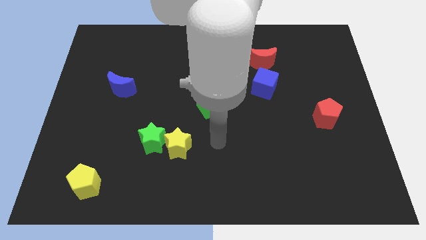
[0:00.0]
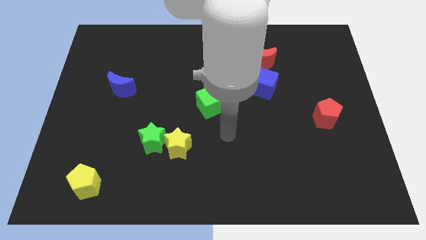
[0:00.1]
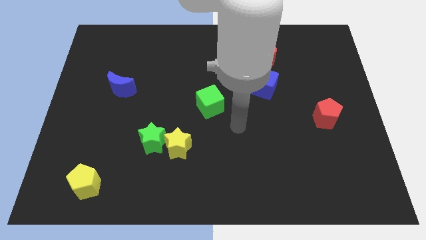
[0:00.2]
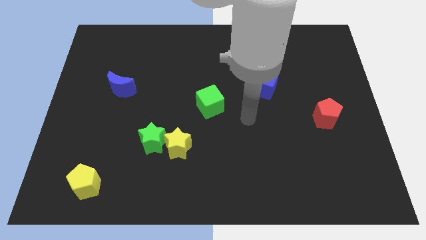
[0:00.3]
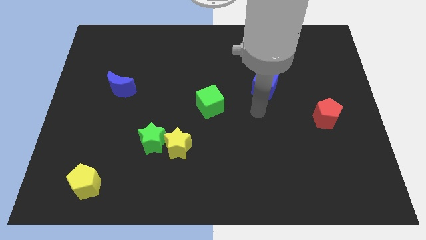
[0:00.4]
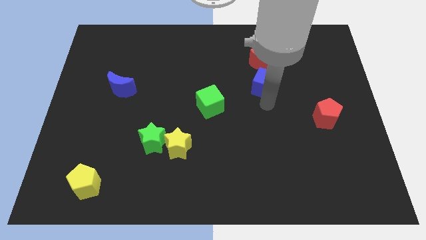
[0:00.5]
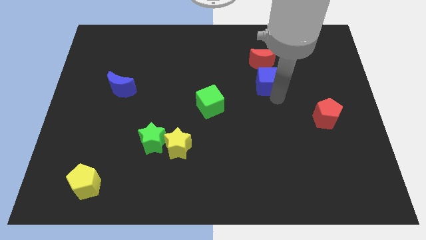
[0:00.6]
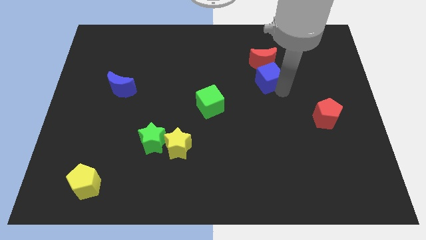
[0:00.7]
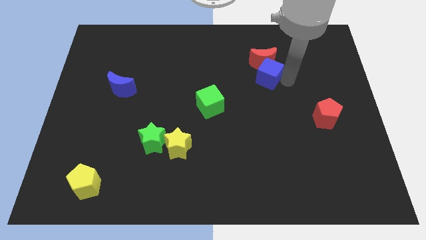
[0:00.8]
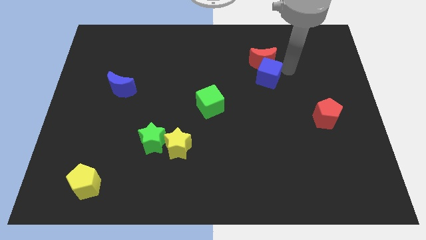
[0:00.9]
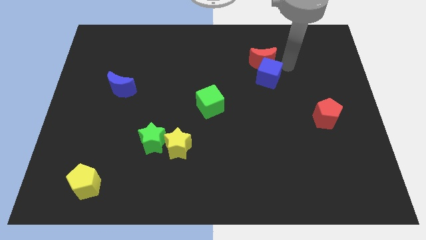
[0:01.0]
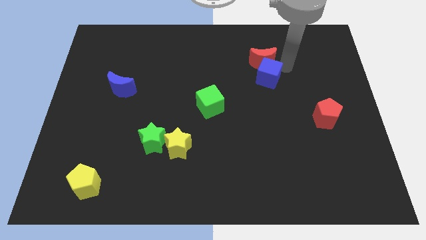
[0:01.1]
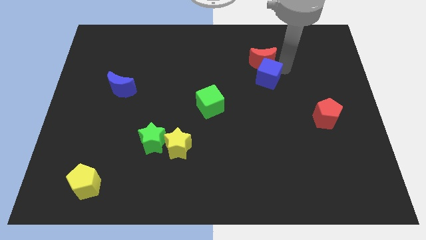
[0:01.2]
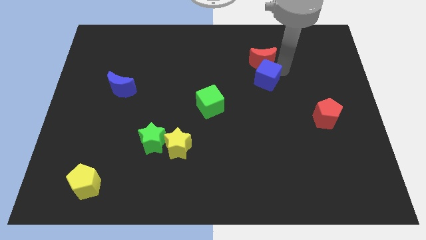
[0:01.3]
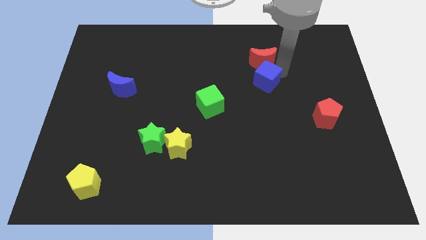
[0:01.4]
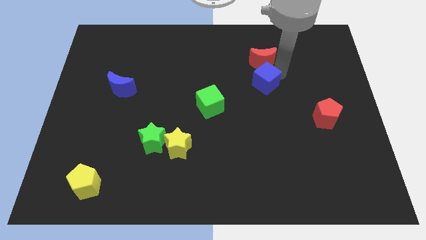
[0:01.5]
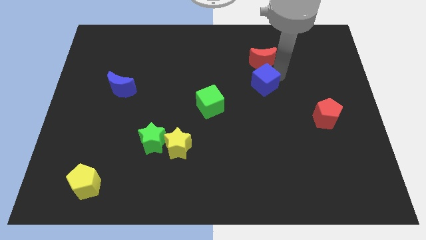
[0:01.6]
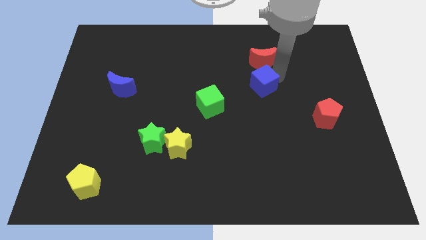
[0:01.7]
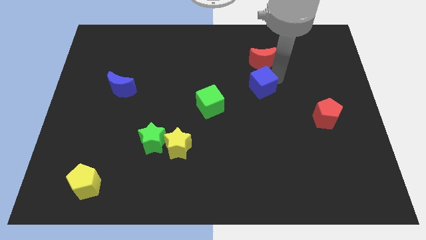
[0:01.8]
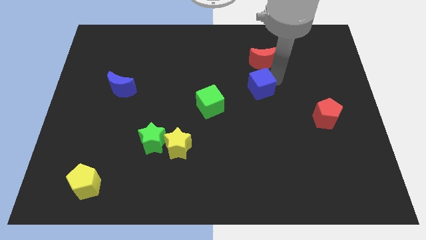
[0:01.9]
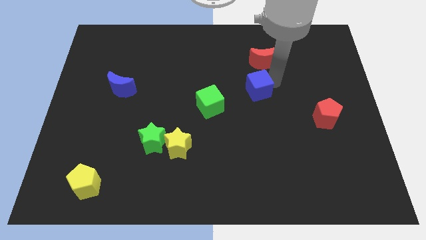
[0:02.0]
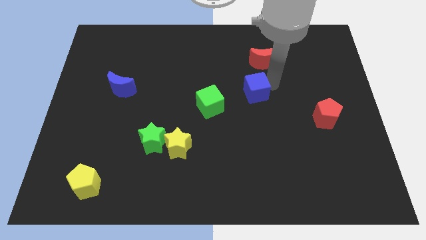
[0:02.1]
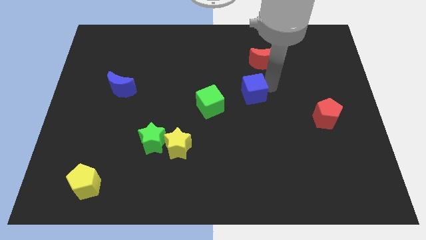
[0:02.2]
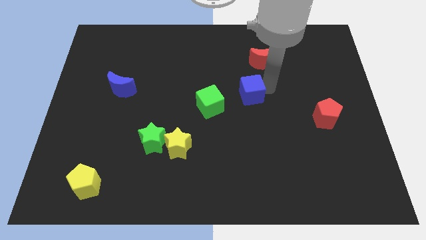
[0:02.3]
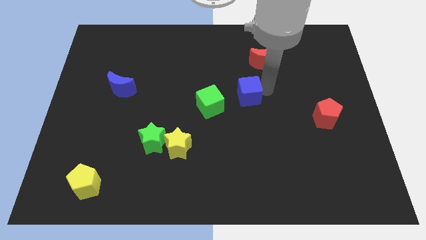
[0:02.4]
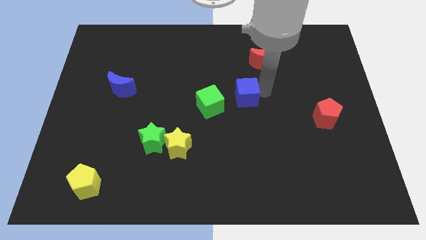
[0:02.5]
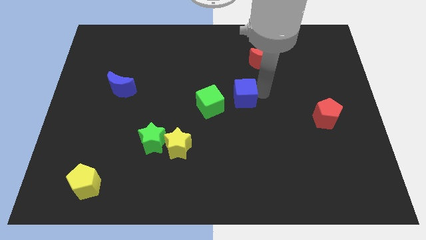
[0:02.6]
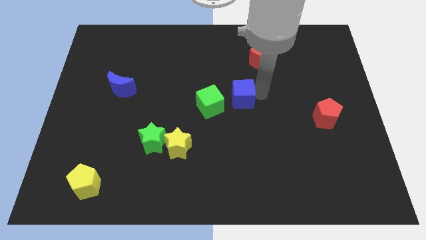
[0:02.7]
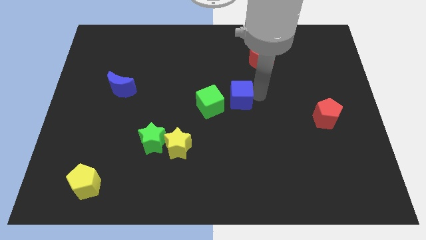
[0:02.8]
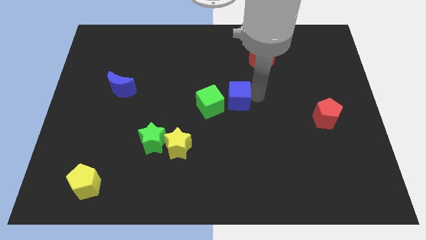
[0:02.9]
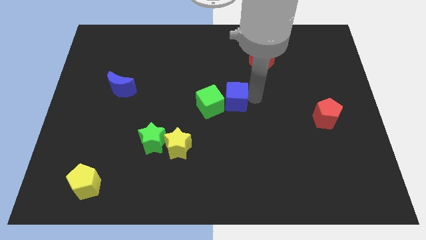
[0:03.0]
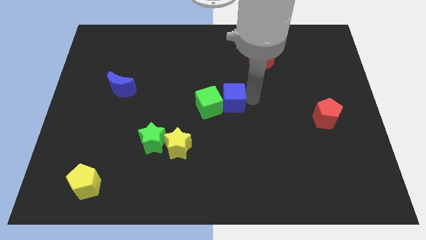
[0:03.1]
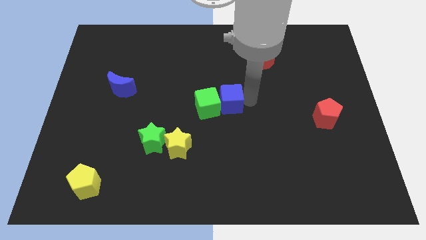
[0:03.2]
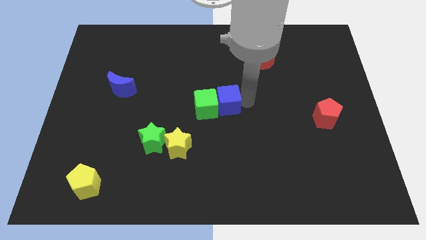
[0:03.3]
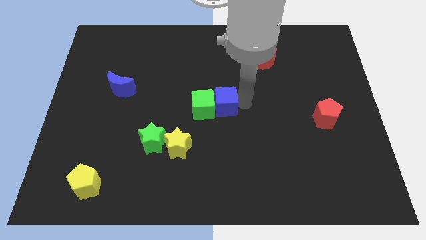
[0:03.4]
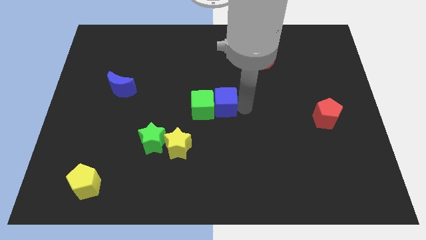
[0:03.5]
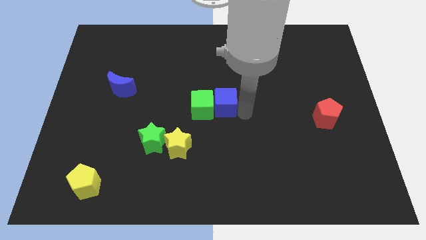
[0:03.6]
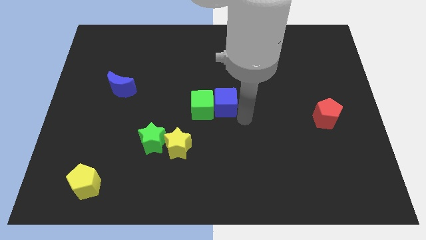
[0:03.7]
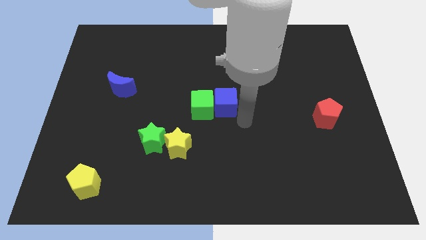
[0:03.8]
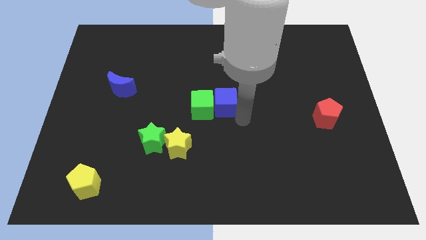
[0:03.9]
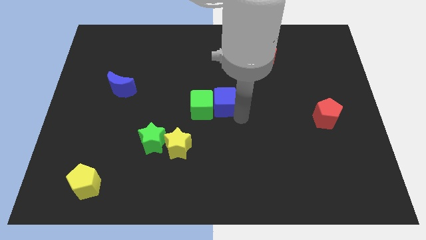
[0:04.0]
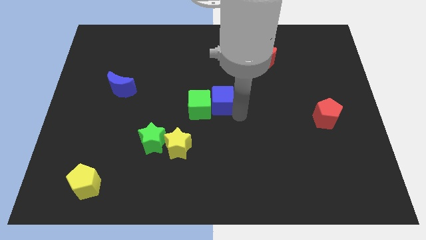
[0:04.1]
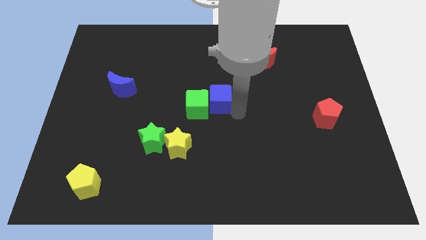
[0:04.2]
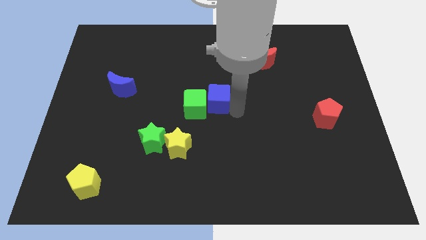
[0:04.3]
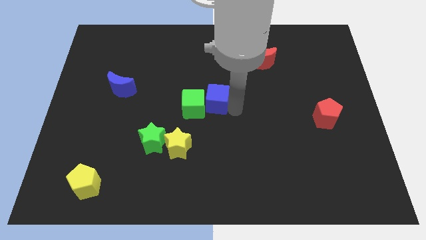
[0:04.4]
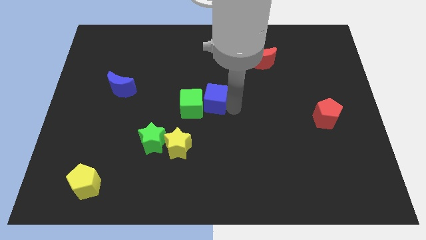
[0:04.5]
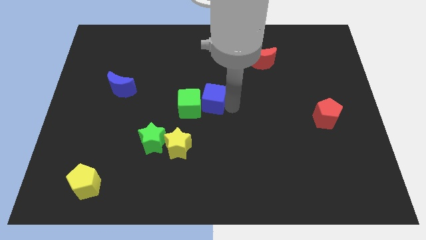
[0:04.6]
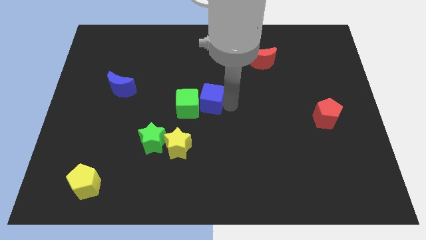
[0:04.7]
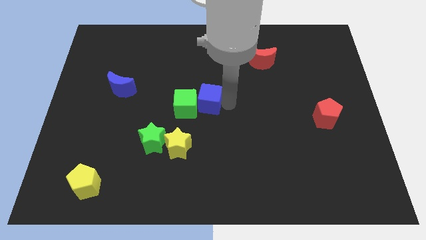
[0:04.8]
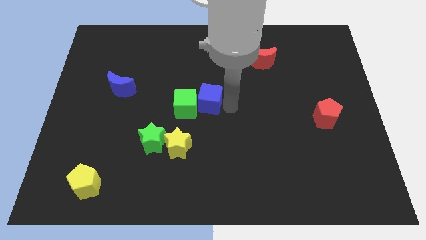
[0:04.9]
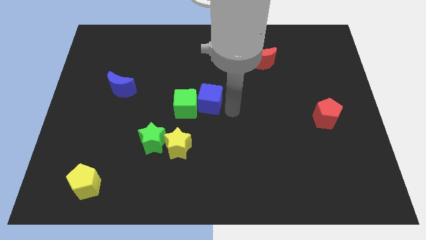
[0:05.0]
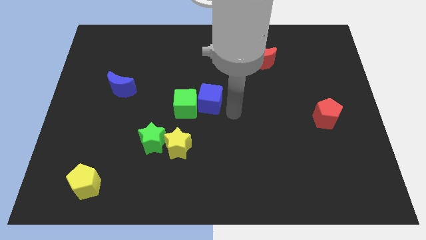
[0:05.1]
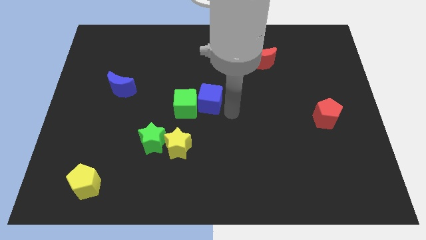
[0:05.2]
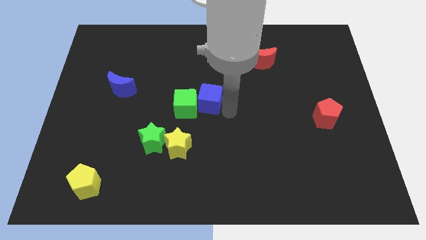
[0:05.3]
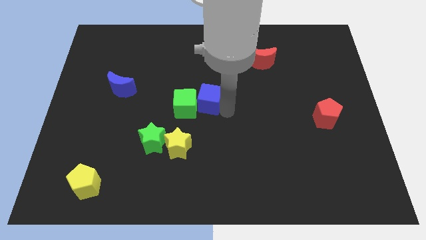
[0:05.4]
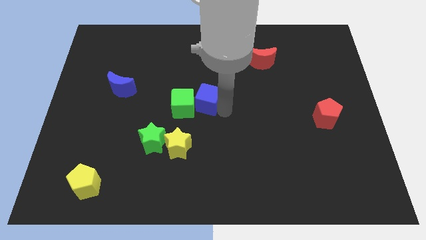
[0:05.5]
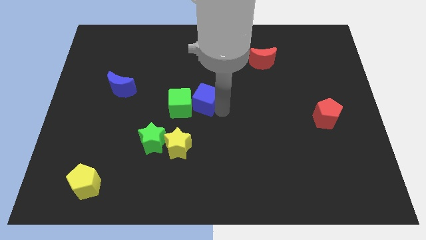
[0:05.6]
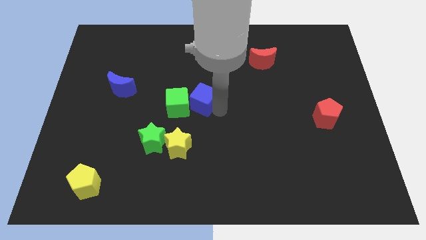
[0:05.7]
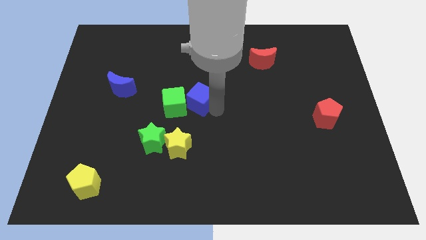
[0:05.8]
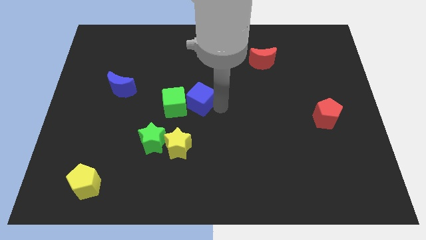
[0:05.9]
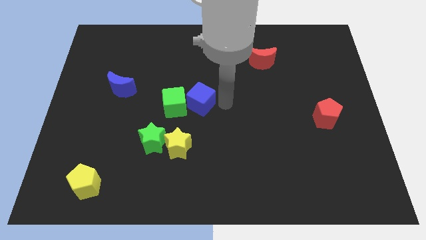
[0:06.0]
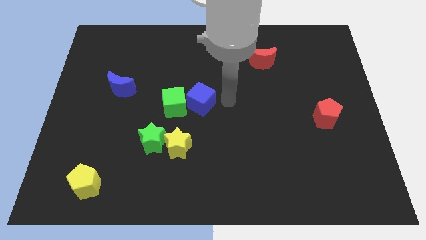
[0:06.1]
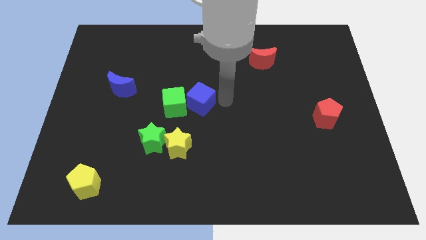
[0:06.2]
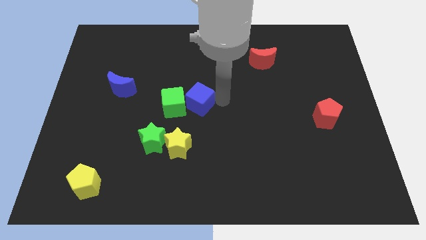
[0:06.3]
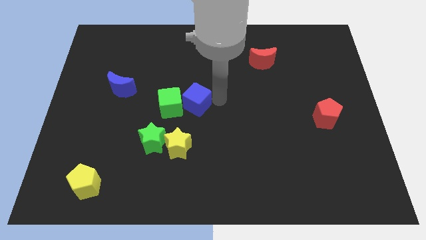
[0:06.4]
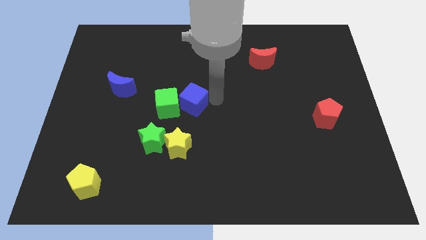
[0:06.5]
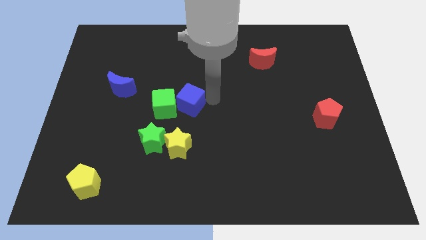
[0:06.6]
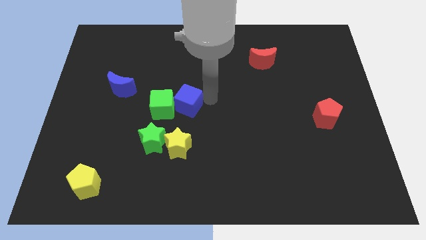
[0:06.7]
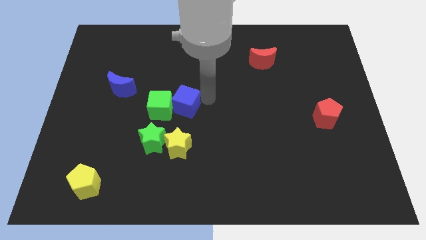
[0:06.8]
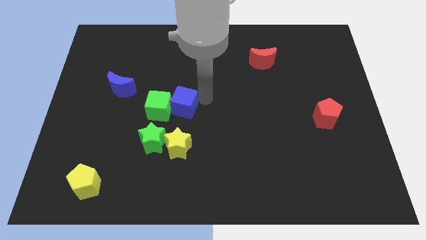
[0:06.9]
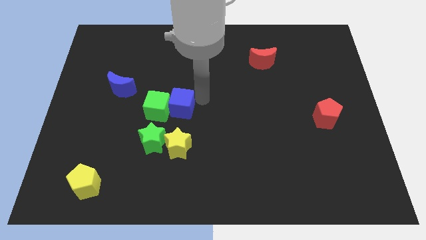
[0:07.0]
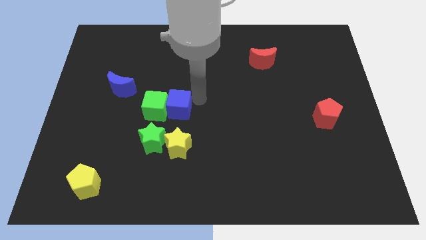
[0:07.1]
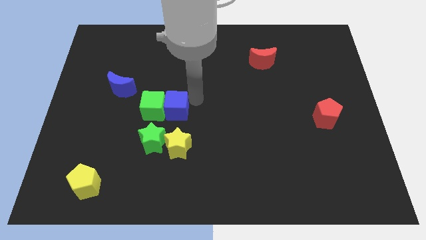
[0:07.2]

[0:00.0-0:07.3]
slide the blue cube to the top side of the green star
